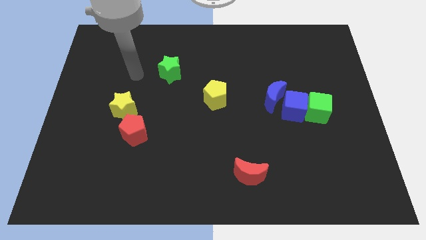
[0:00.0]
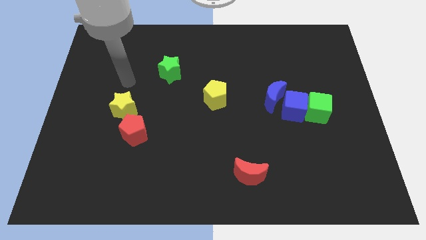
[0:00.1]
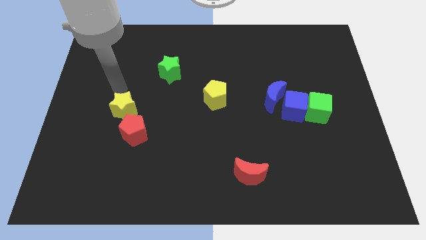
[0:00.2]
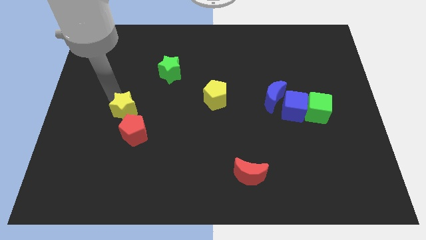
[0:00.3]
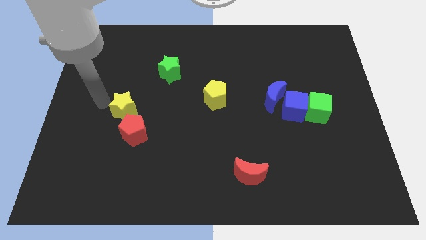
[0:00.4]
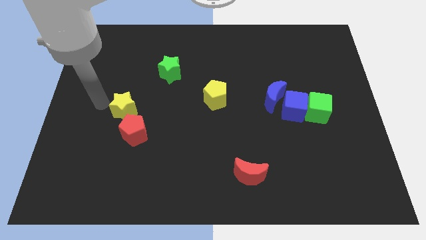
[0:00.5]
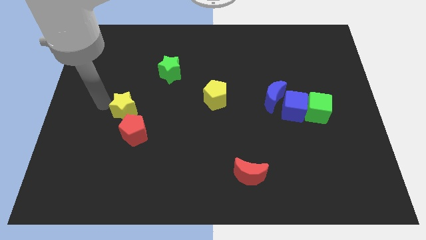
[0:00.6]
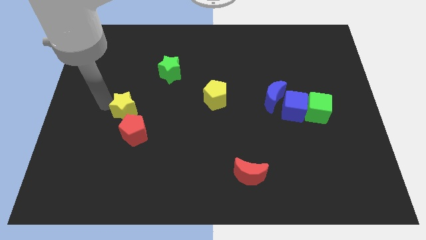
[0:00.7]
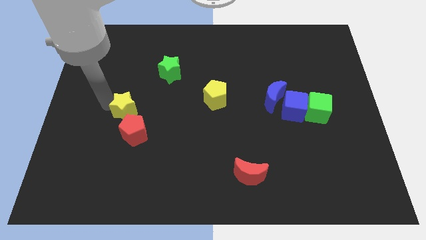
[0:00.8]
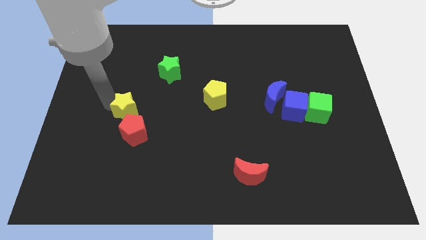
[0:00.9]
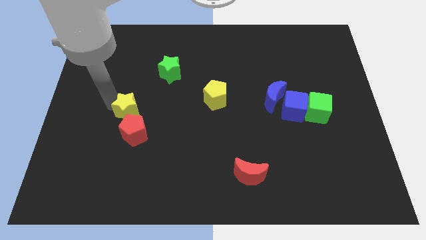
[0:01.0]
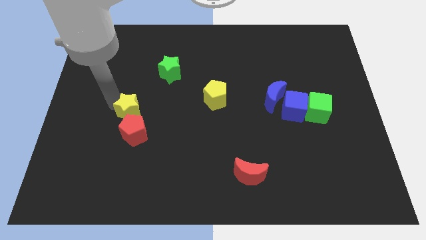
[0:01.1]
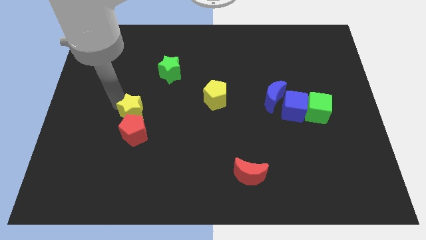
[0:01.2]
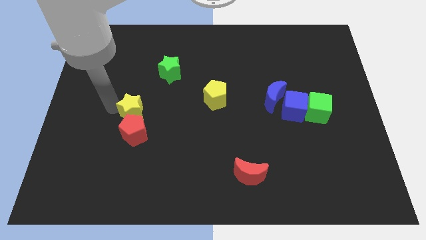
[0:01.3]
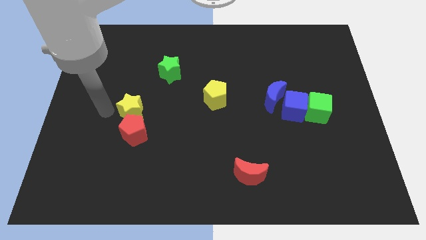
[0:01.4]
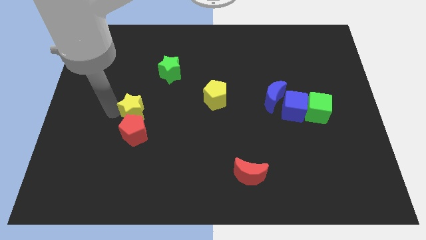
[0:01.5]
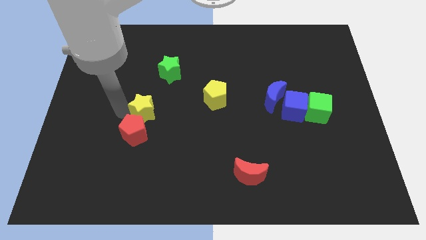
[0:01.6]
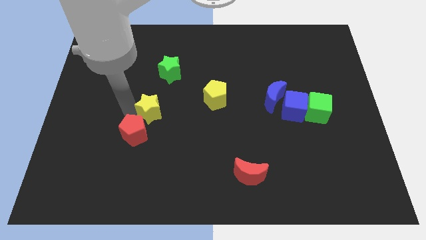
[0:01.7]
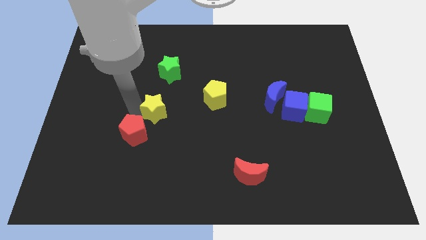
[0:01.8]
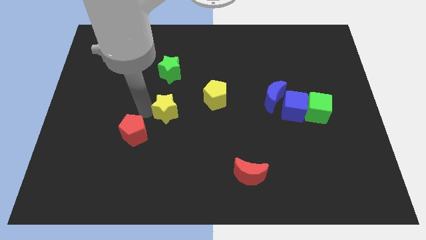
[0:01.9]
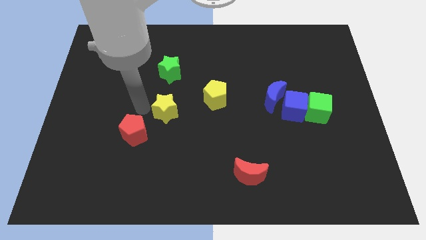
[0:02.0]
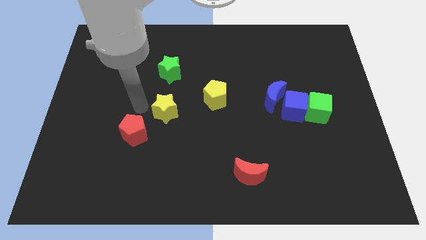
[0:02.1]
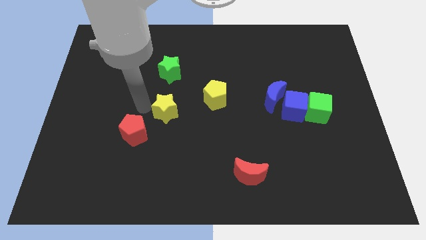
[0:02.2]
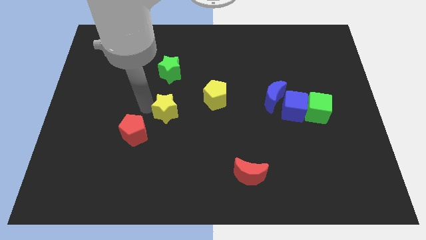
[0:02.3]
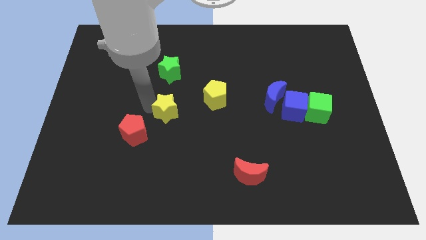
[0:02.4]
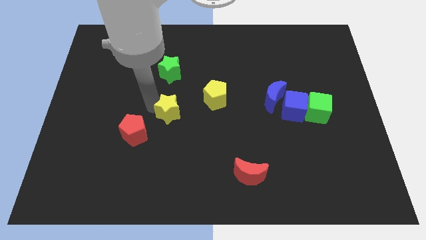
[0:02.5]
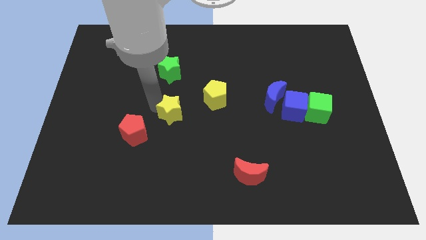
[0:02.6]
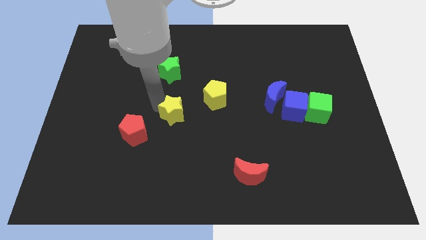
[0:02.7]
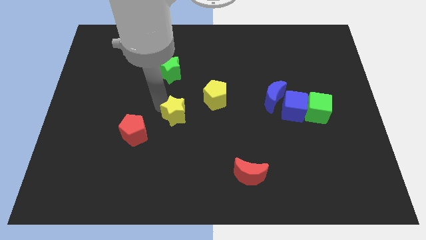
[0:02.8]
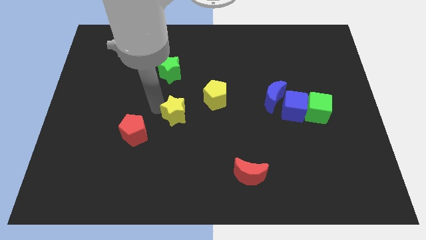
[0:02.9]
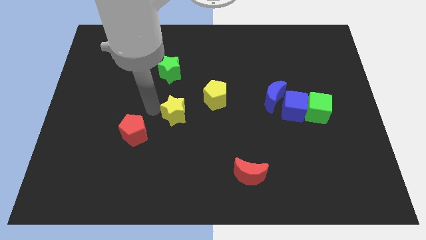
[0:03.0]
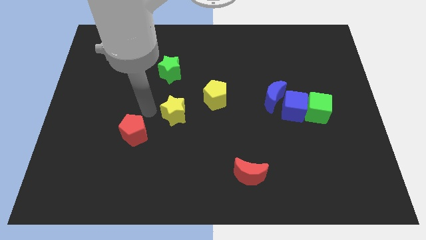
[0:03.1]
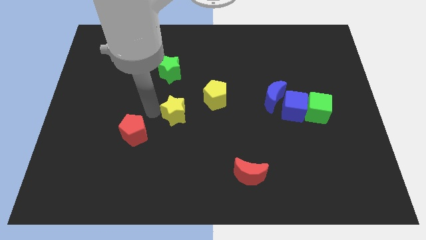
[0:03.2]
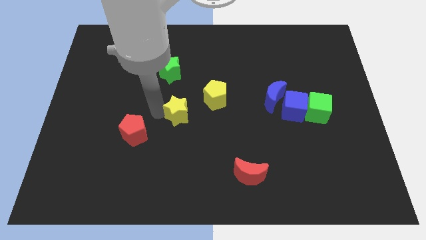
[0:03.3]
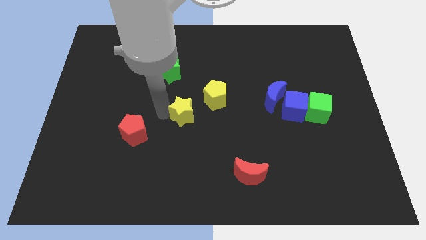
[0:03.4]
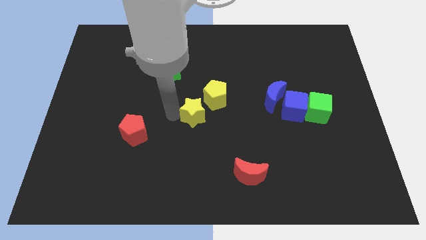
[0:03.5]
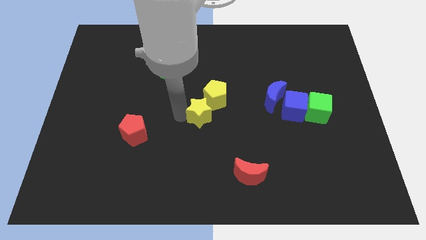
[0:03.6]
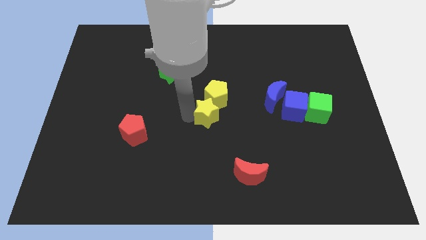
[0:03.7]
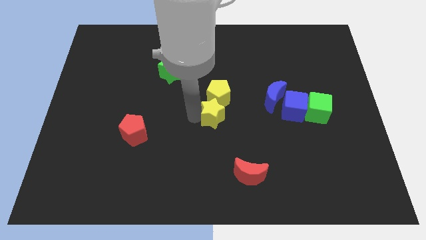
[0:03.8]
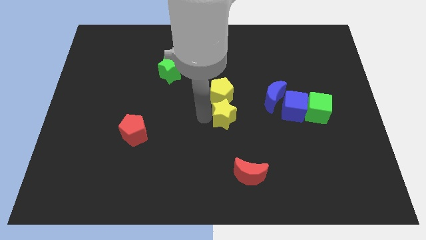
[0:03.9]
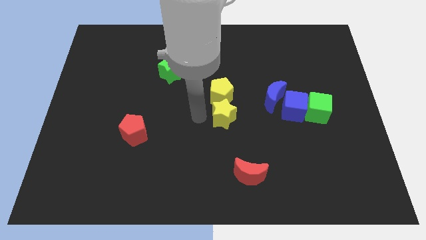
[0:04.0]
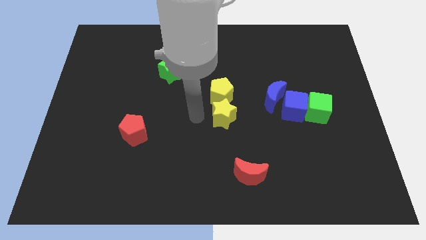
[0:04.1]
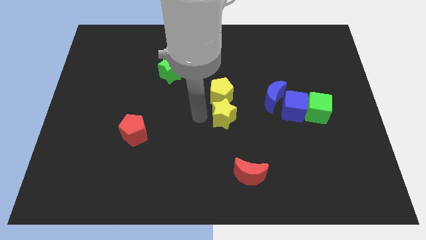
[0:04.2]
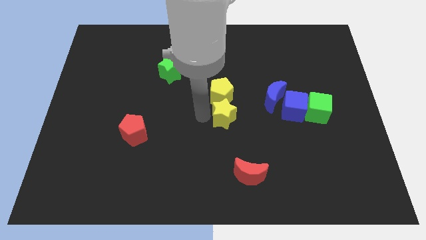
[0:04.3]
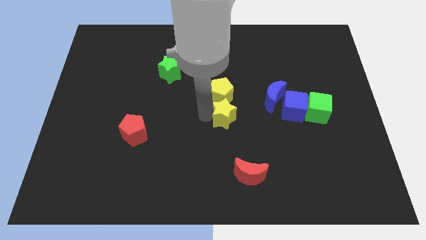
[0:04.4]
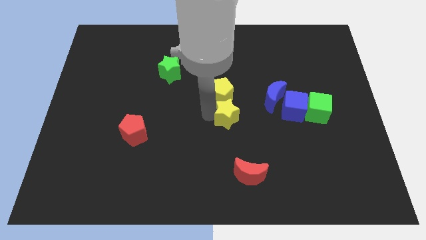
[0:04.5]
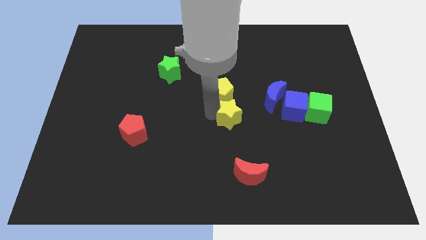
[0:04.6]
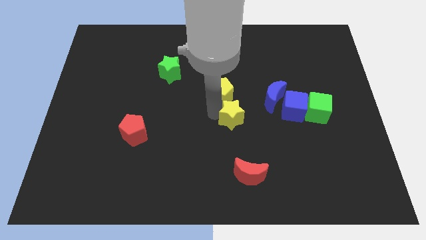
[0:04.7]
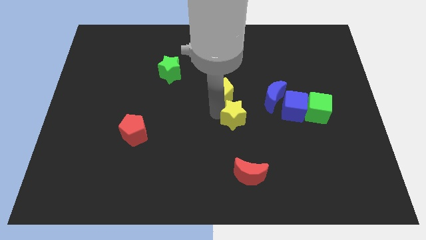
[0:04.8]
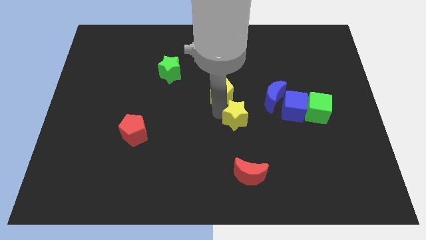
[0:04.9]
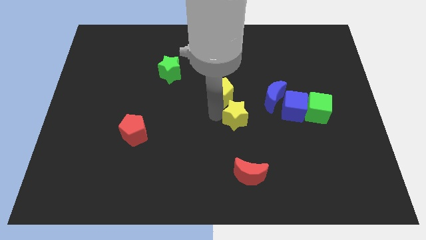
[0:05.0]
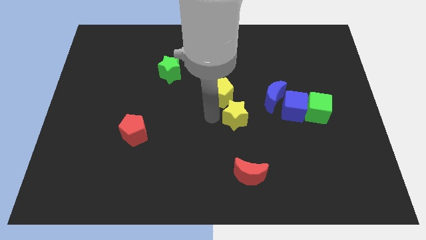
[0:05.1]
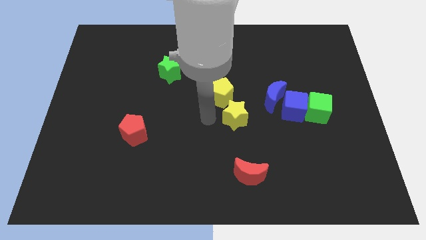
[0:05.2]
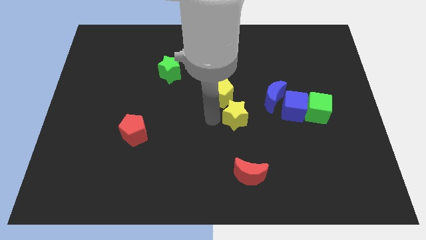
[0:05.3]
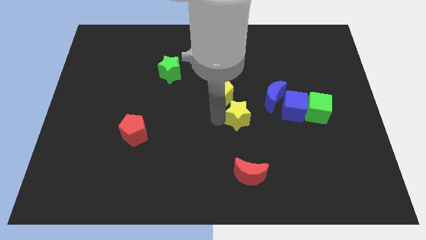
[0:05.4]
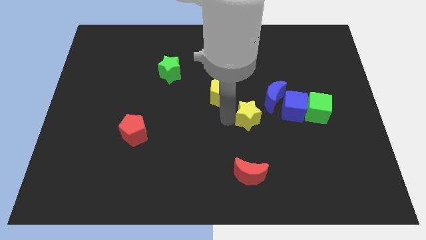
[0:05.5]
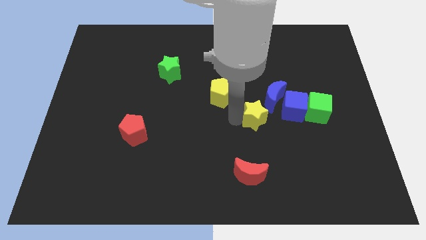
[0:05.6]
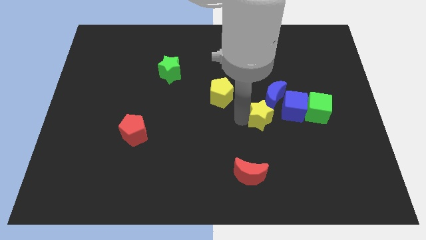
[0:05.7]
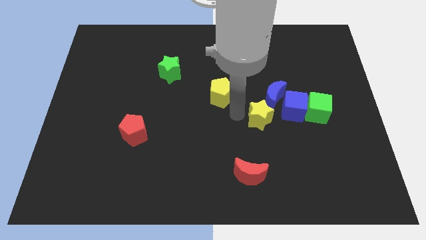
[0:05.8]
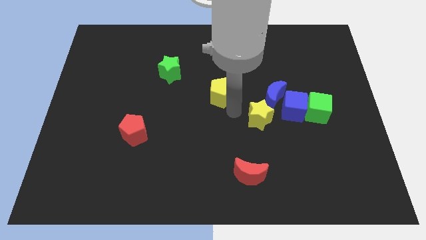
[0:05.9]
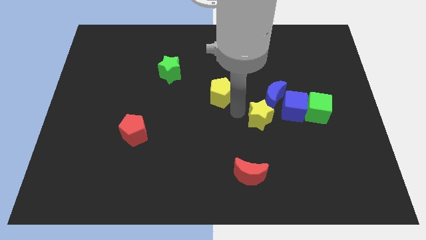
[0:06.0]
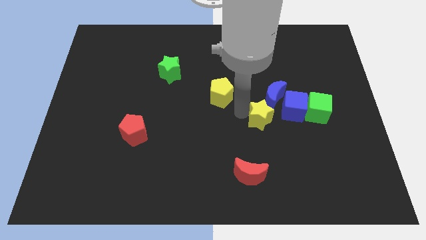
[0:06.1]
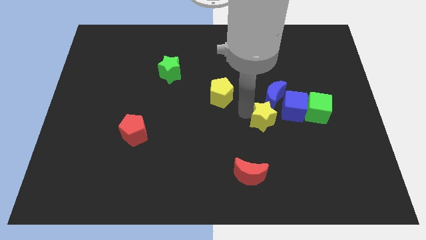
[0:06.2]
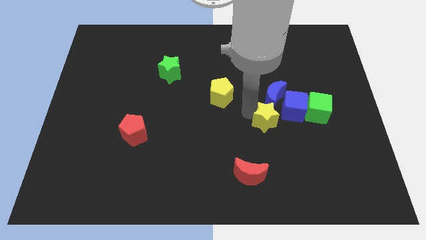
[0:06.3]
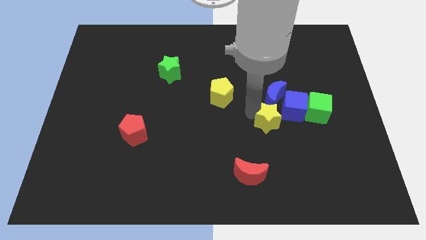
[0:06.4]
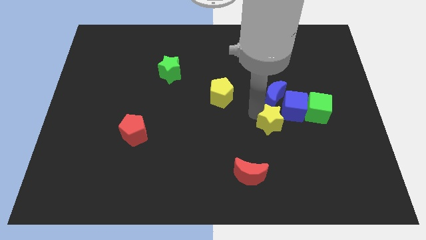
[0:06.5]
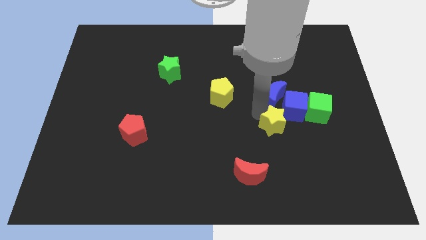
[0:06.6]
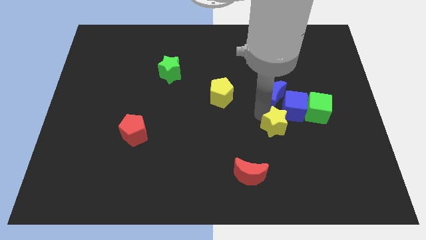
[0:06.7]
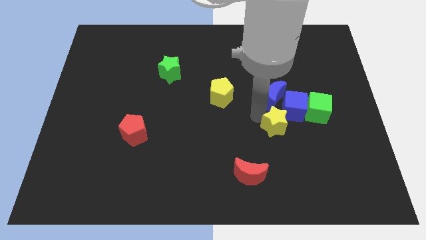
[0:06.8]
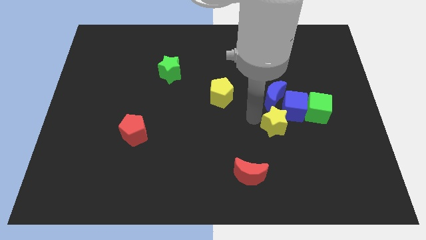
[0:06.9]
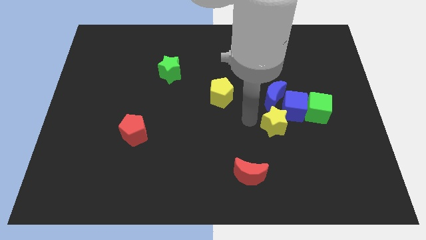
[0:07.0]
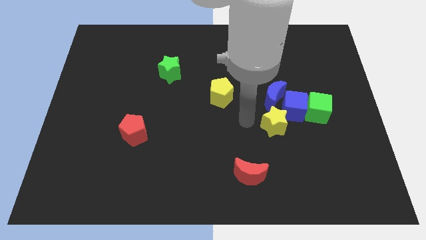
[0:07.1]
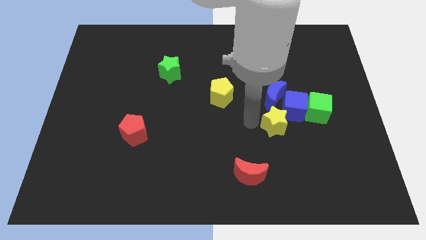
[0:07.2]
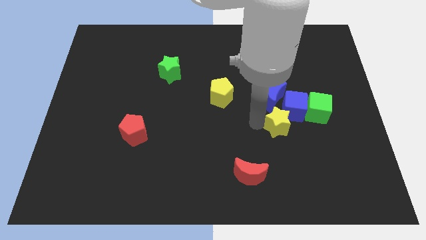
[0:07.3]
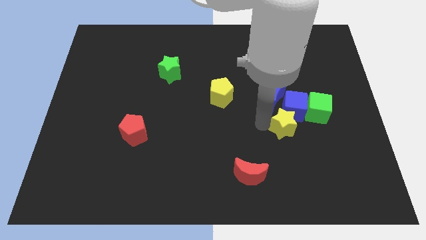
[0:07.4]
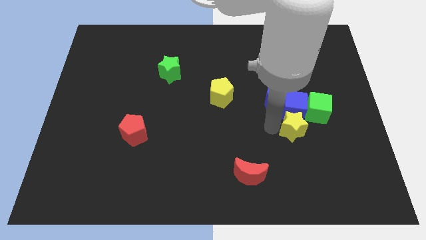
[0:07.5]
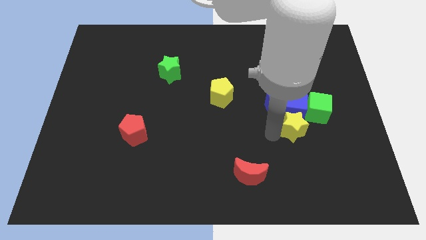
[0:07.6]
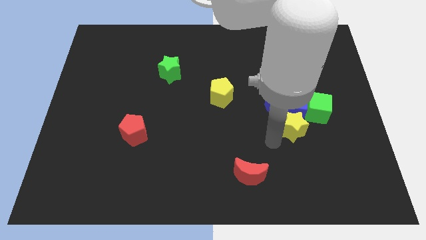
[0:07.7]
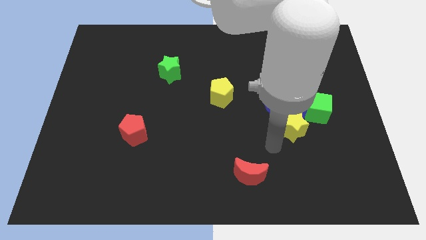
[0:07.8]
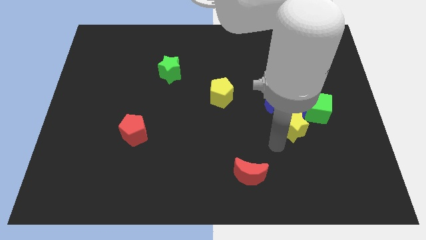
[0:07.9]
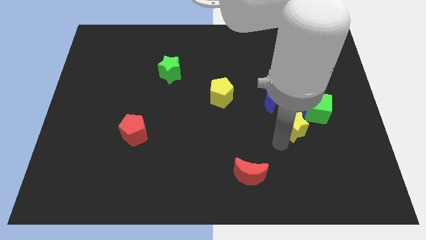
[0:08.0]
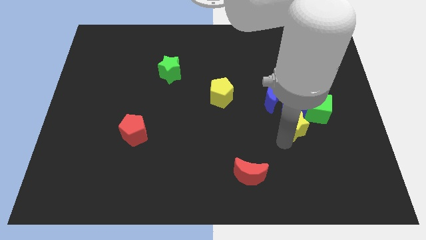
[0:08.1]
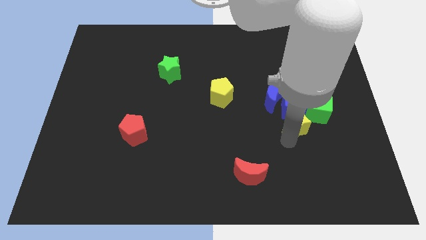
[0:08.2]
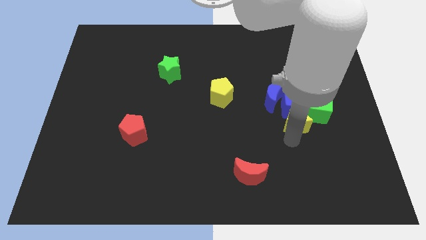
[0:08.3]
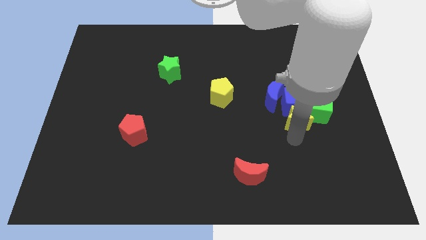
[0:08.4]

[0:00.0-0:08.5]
put the yellow star towards the green cube
